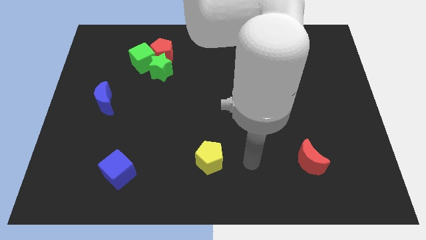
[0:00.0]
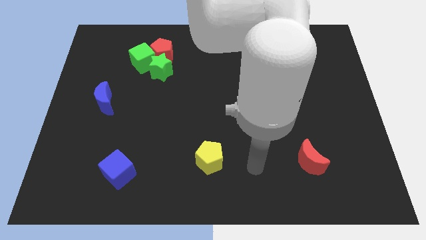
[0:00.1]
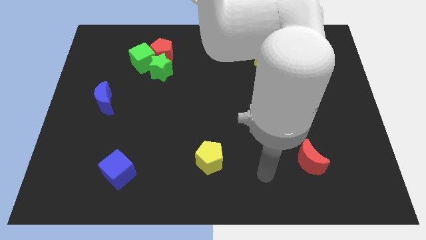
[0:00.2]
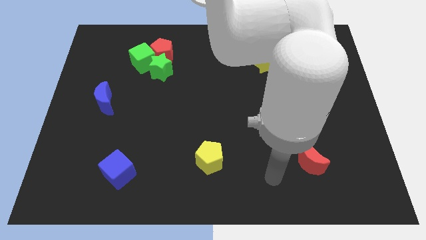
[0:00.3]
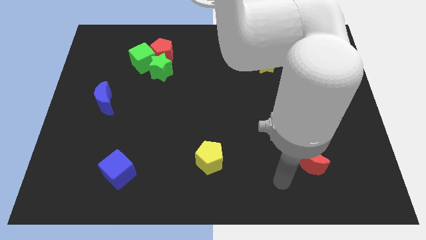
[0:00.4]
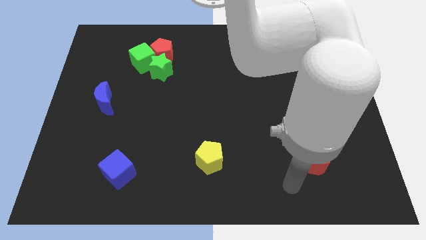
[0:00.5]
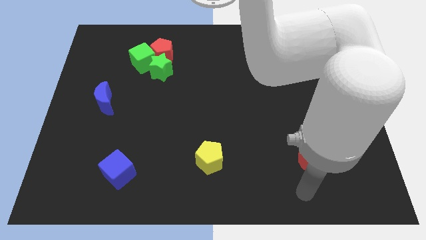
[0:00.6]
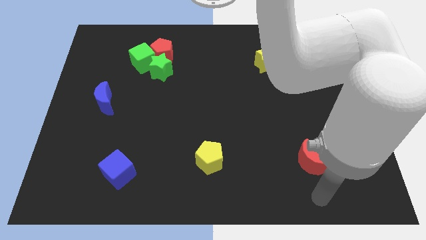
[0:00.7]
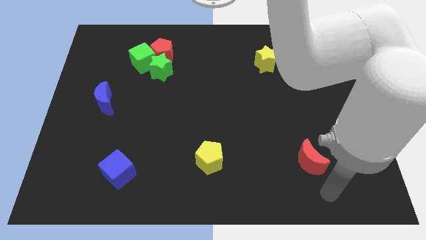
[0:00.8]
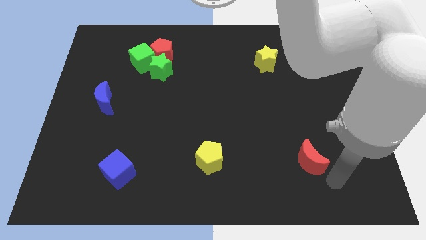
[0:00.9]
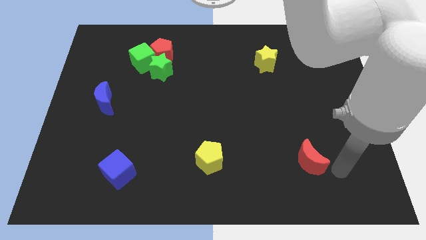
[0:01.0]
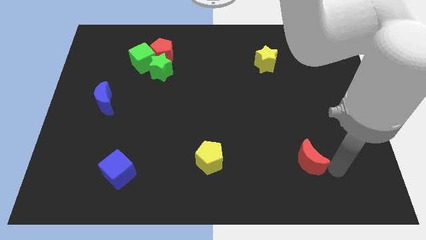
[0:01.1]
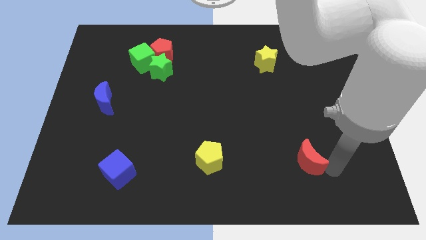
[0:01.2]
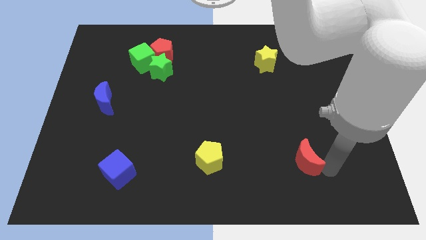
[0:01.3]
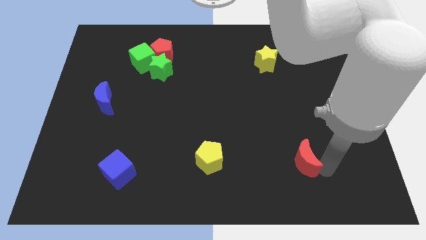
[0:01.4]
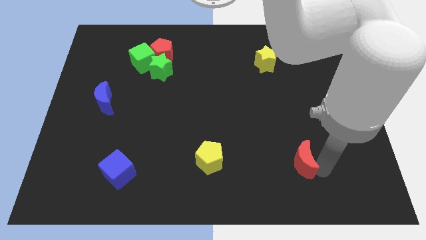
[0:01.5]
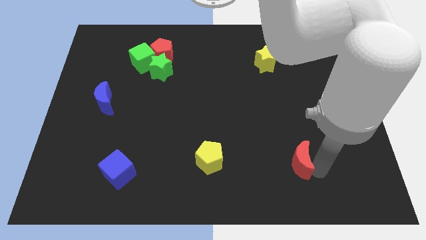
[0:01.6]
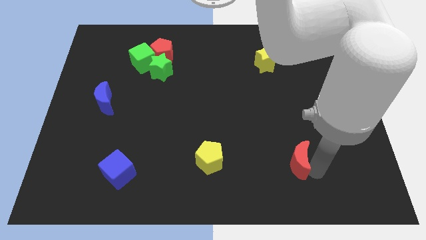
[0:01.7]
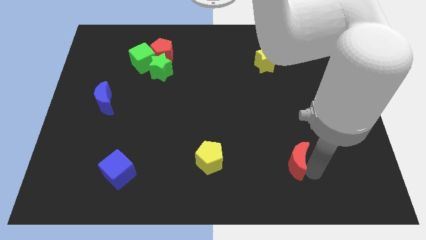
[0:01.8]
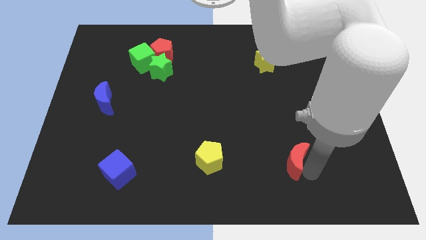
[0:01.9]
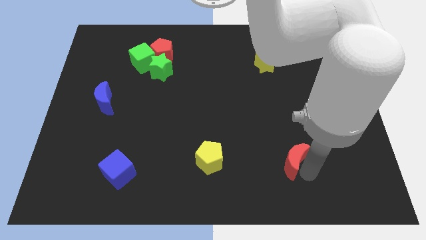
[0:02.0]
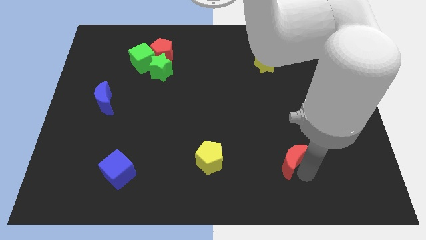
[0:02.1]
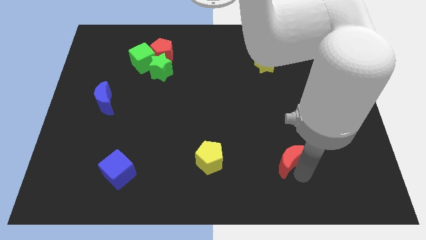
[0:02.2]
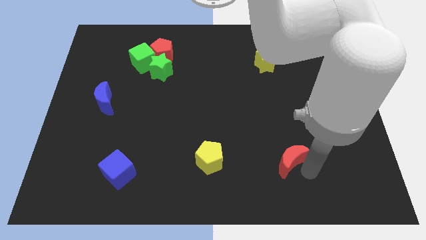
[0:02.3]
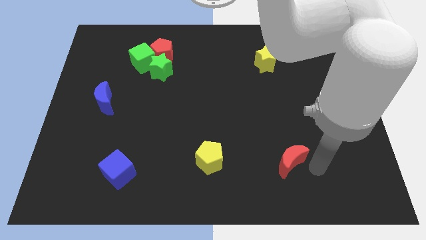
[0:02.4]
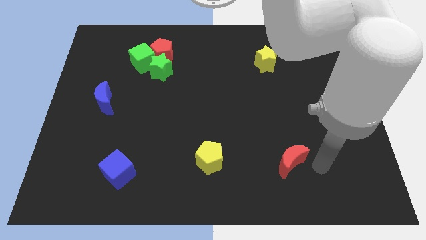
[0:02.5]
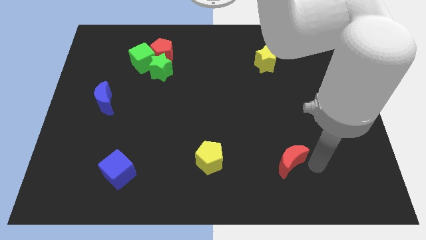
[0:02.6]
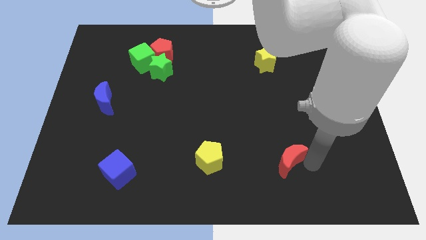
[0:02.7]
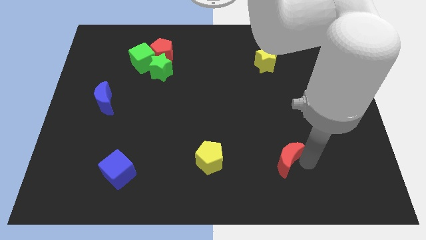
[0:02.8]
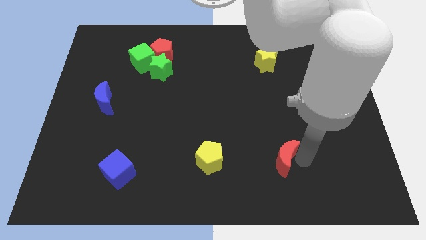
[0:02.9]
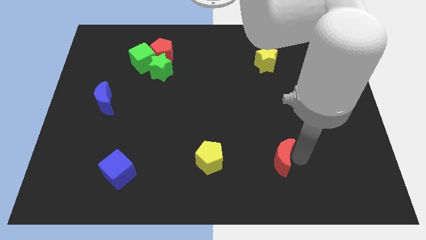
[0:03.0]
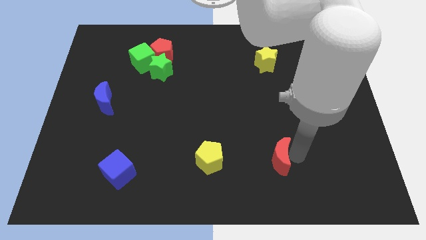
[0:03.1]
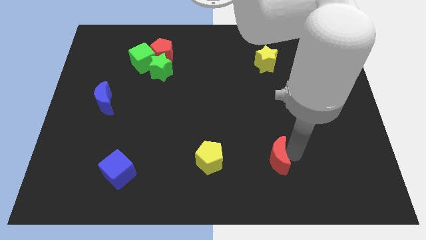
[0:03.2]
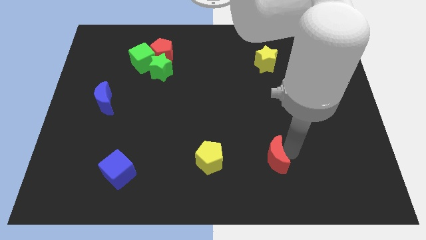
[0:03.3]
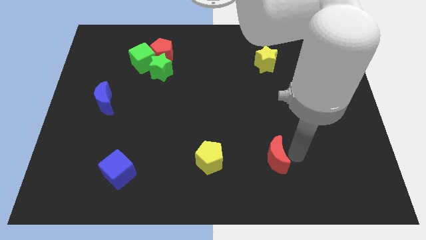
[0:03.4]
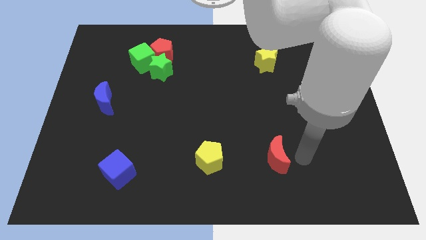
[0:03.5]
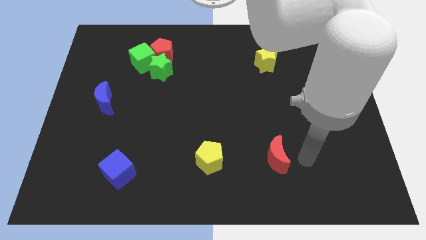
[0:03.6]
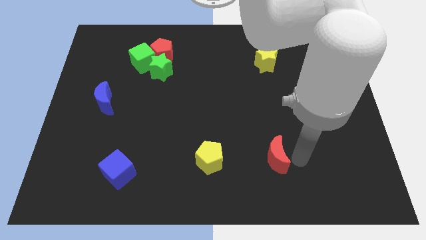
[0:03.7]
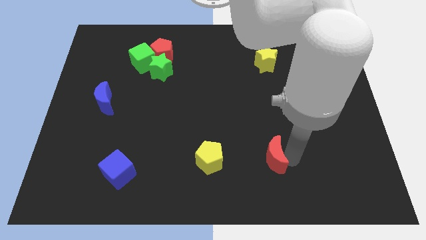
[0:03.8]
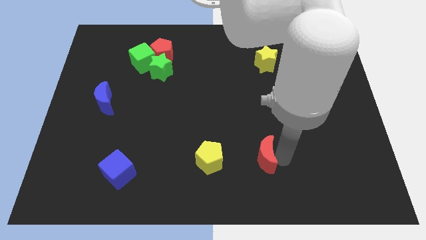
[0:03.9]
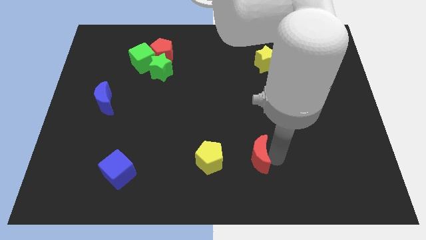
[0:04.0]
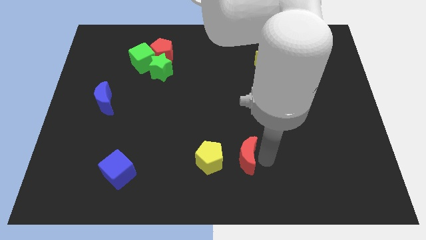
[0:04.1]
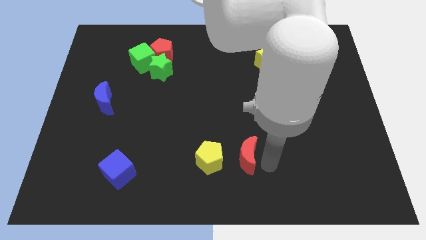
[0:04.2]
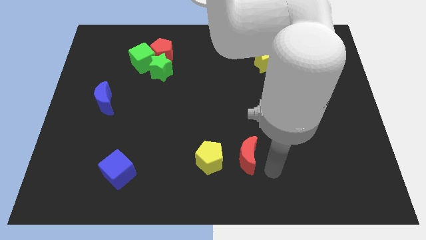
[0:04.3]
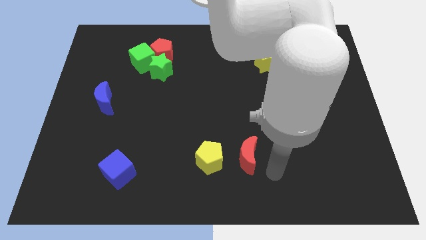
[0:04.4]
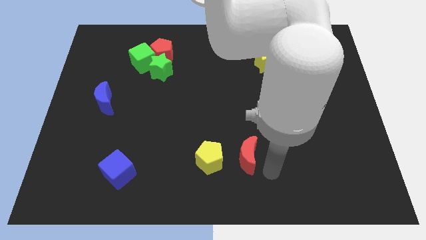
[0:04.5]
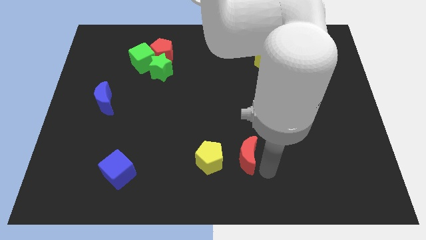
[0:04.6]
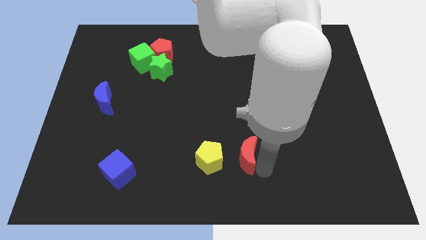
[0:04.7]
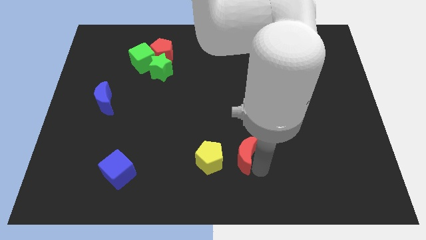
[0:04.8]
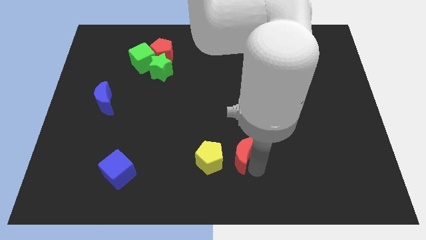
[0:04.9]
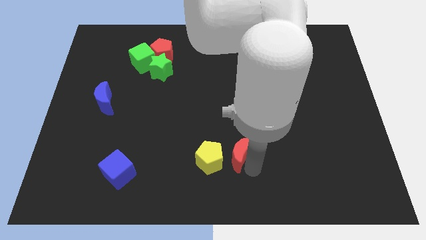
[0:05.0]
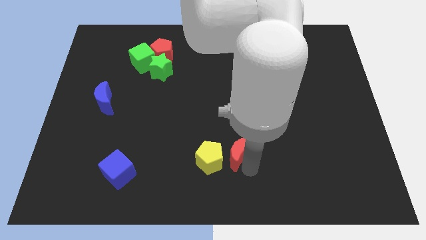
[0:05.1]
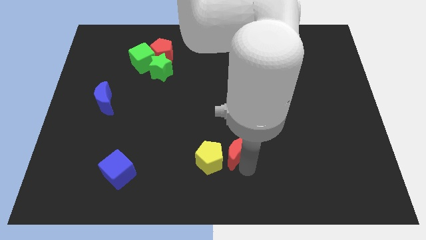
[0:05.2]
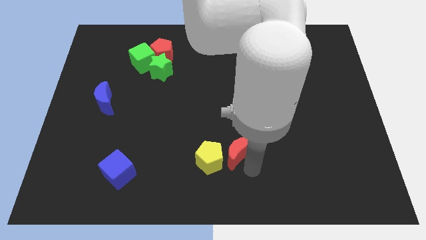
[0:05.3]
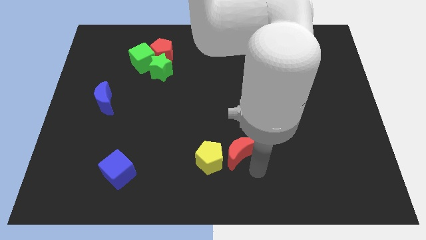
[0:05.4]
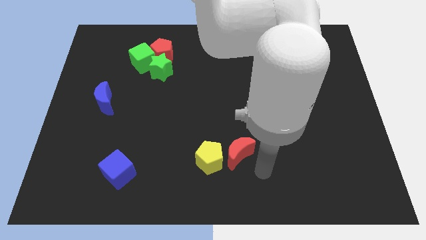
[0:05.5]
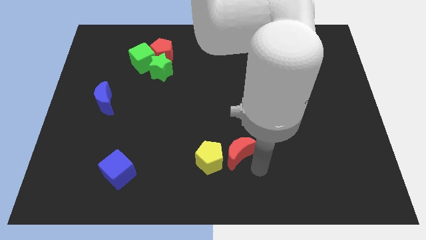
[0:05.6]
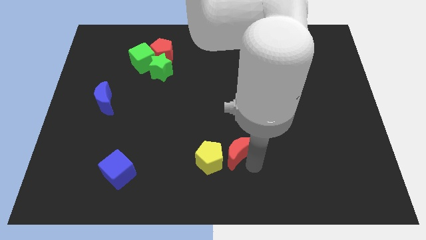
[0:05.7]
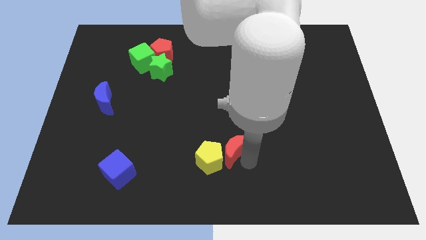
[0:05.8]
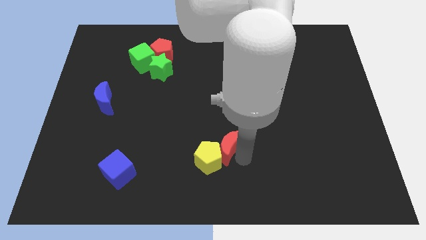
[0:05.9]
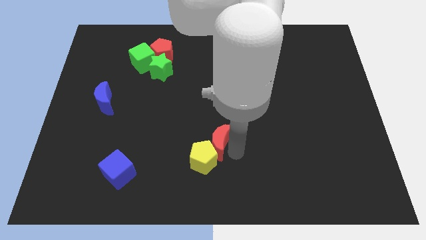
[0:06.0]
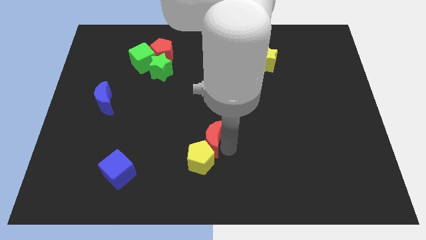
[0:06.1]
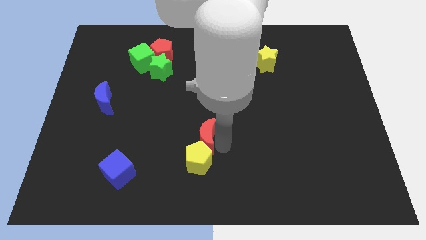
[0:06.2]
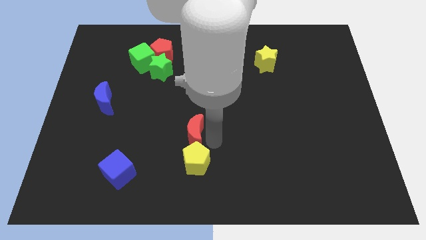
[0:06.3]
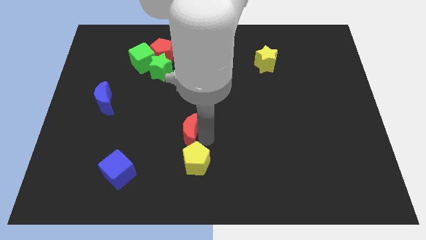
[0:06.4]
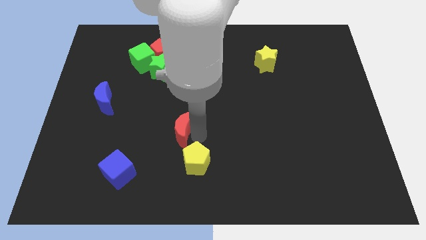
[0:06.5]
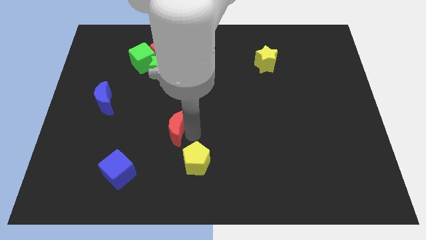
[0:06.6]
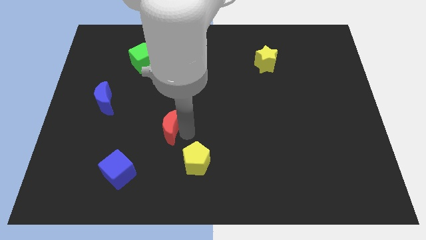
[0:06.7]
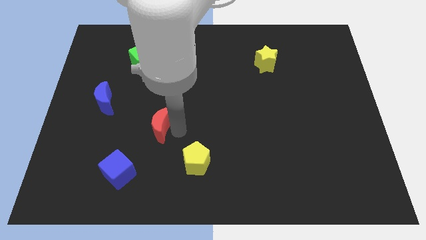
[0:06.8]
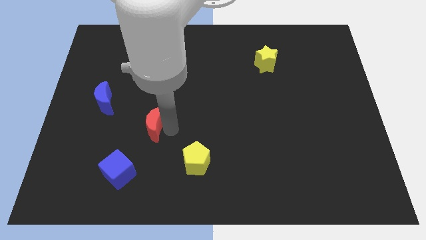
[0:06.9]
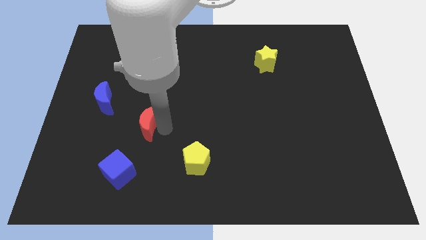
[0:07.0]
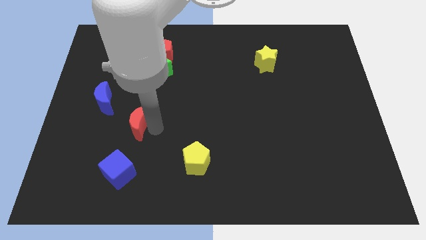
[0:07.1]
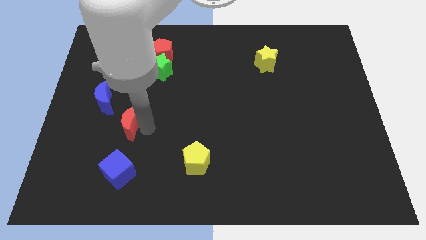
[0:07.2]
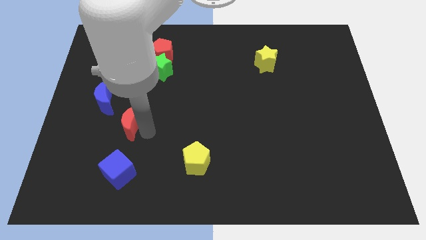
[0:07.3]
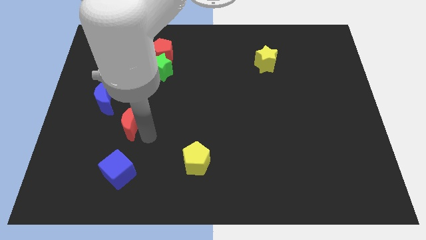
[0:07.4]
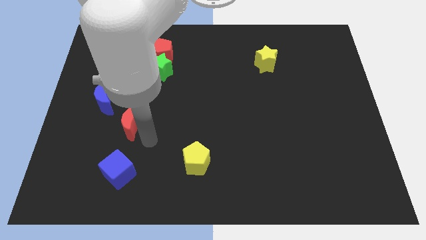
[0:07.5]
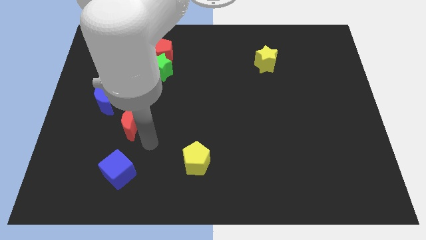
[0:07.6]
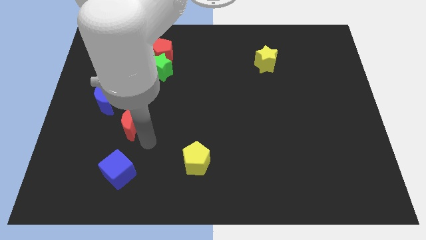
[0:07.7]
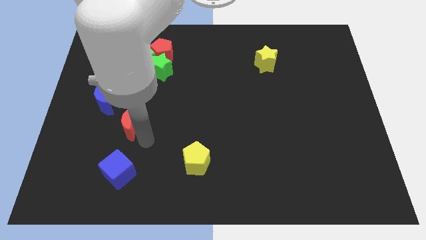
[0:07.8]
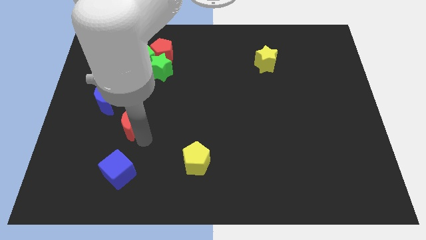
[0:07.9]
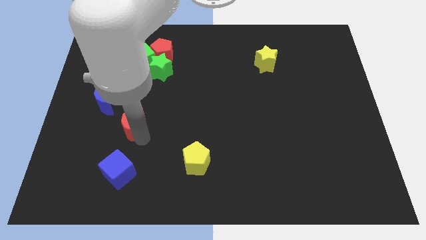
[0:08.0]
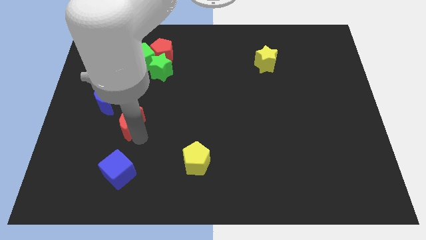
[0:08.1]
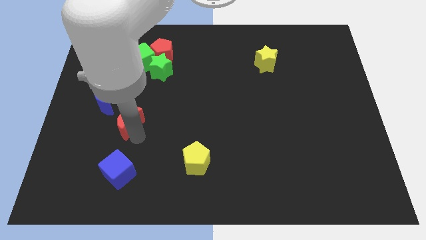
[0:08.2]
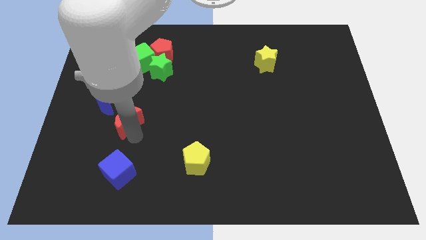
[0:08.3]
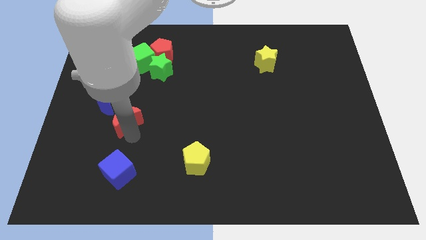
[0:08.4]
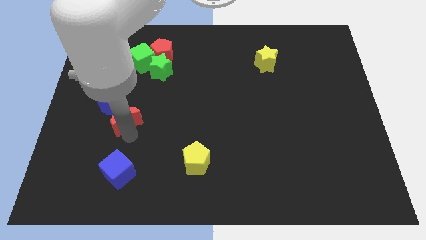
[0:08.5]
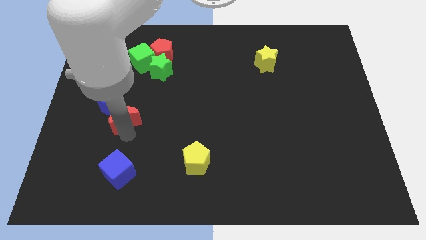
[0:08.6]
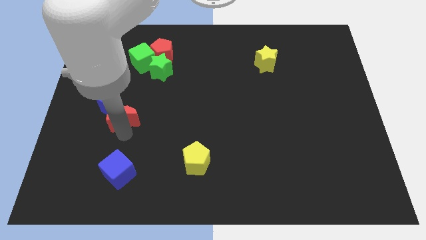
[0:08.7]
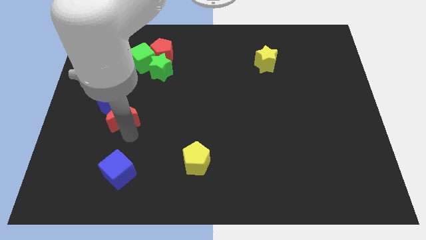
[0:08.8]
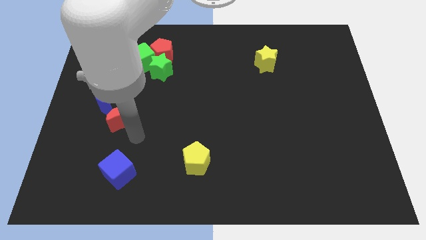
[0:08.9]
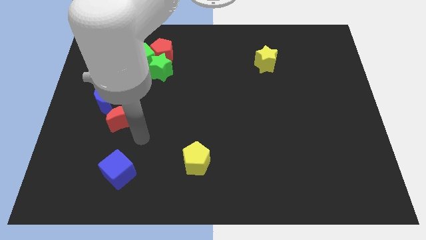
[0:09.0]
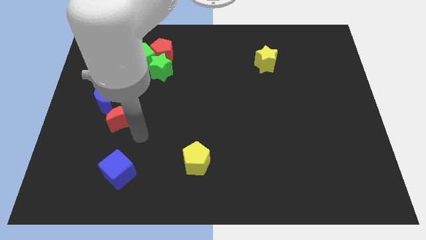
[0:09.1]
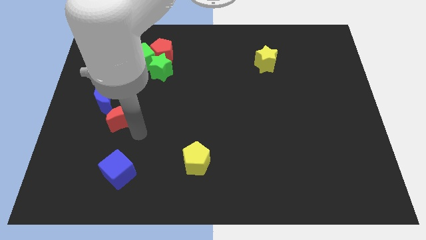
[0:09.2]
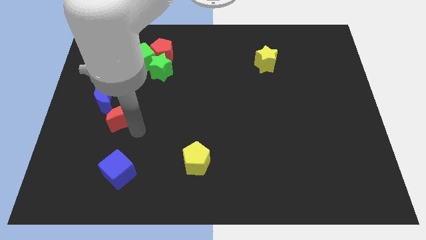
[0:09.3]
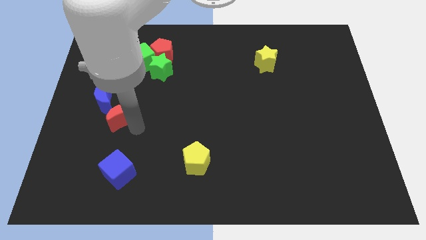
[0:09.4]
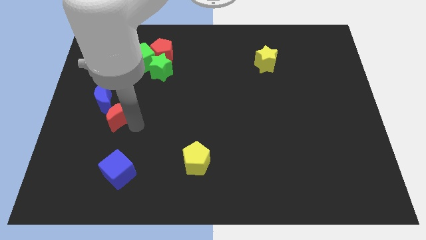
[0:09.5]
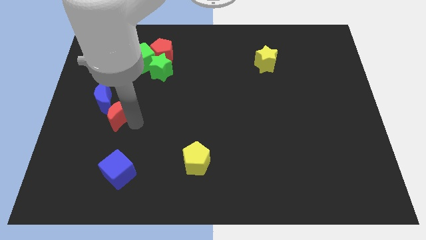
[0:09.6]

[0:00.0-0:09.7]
push the red moon next to the blue moon
